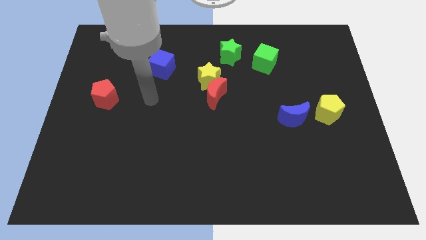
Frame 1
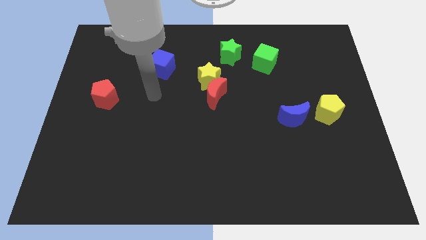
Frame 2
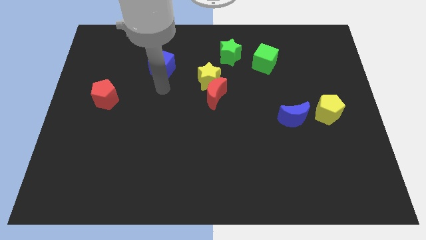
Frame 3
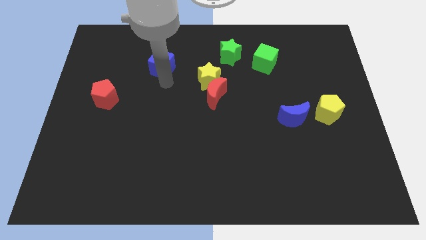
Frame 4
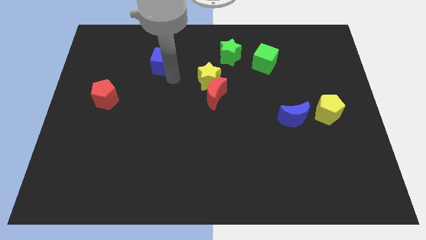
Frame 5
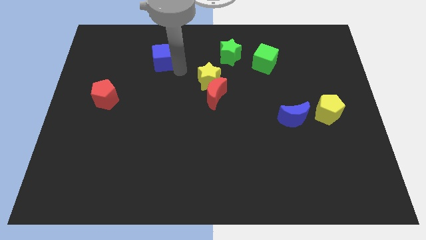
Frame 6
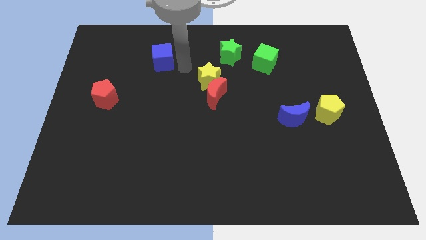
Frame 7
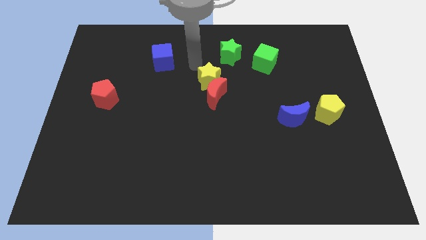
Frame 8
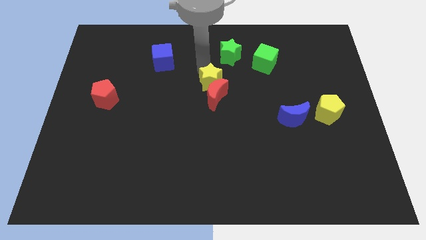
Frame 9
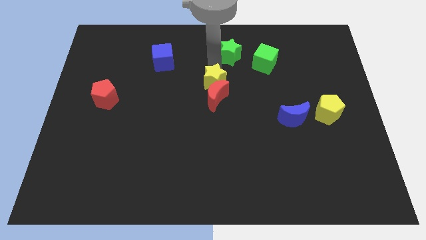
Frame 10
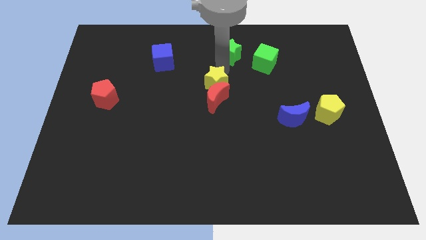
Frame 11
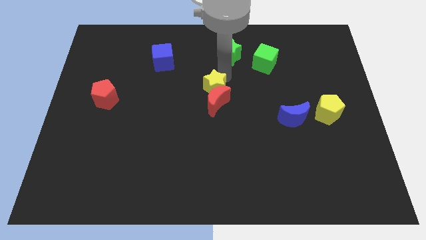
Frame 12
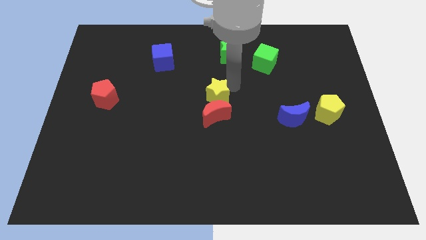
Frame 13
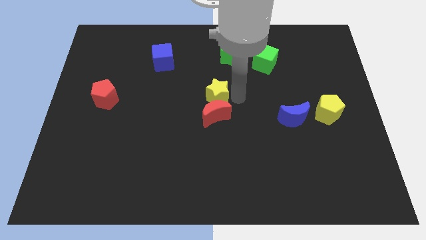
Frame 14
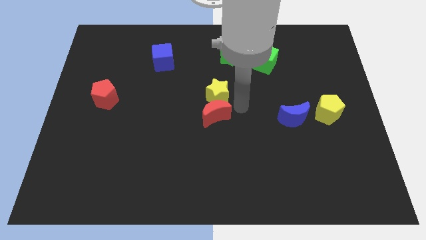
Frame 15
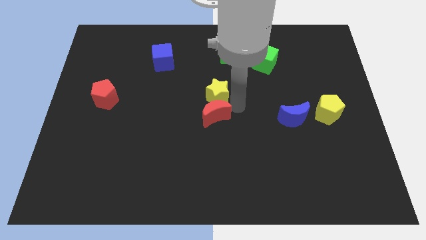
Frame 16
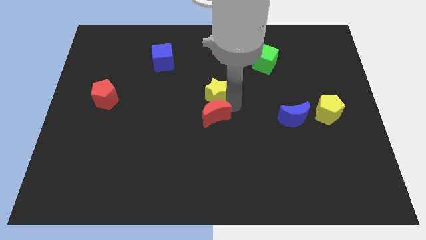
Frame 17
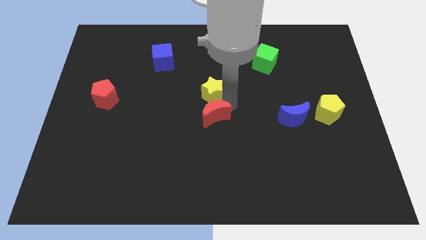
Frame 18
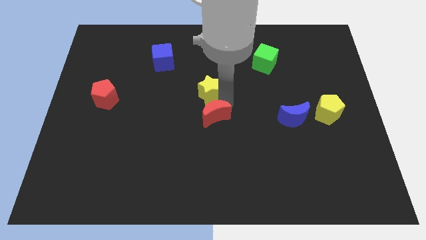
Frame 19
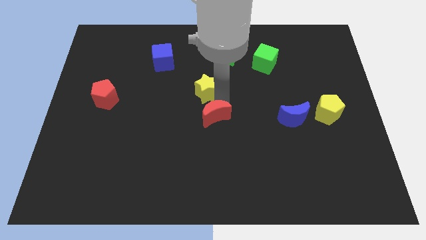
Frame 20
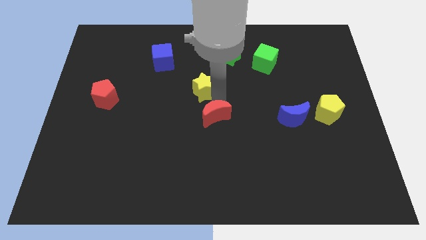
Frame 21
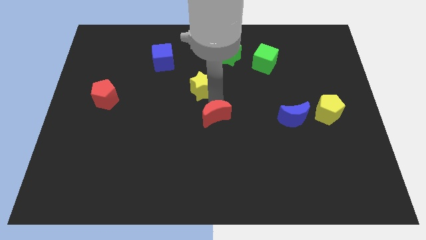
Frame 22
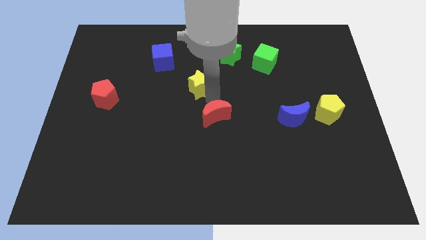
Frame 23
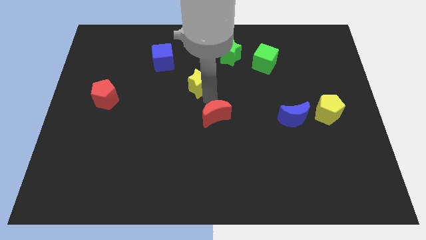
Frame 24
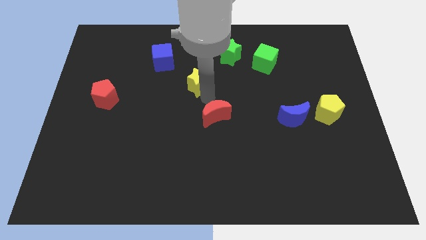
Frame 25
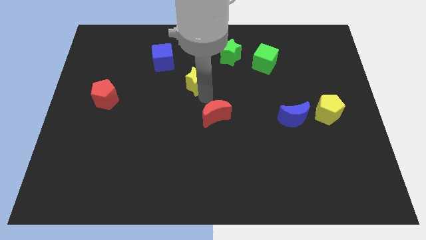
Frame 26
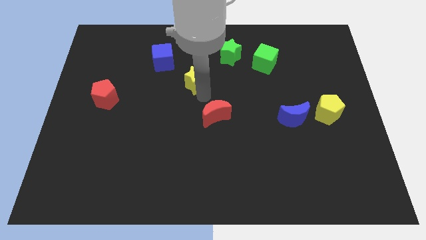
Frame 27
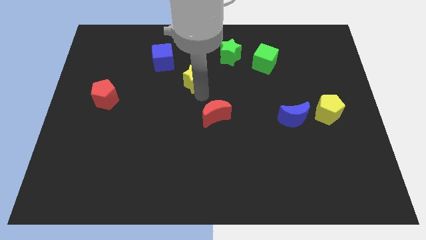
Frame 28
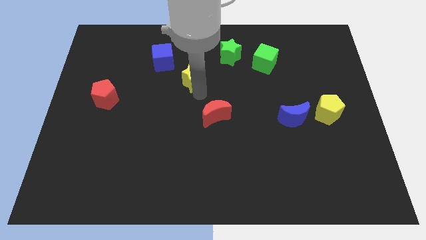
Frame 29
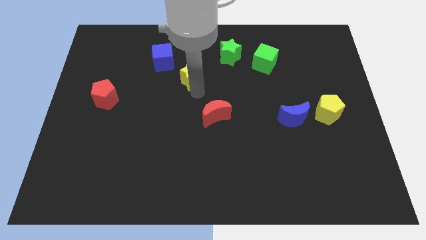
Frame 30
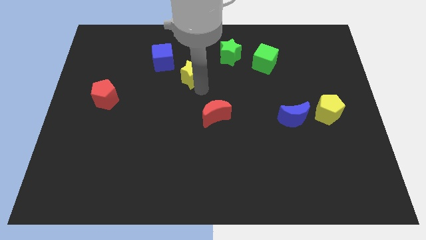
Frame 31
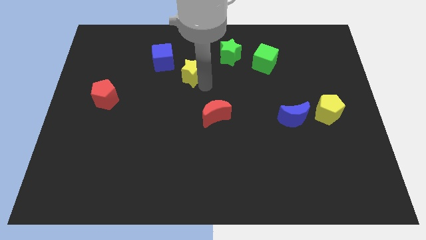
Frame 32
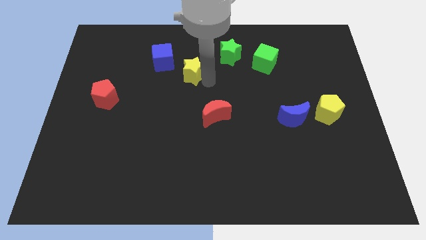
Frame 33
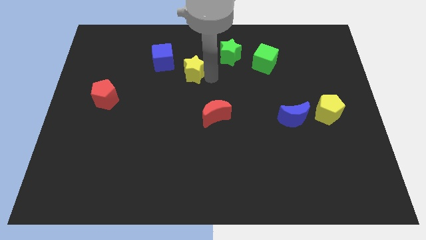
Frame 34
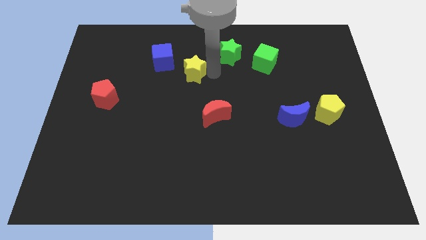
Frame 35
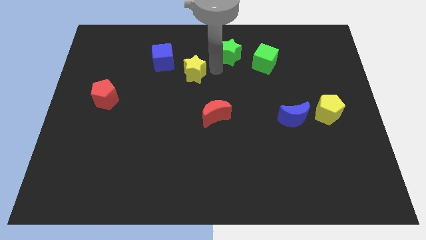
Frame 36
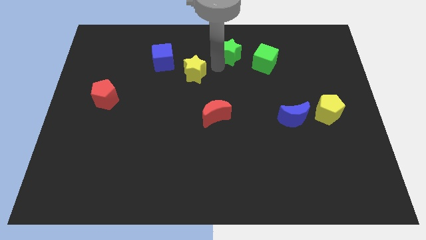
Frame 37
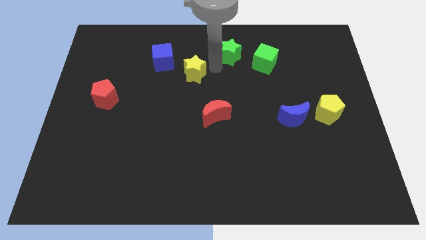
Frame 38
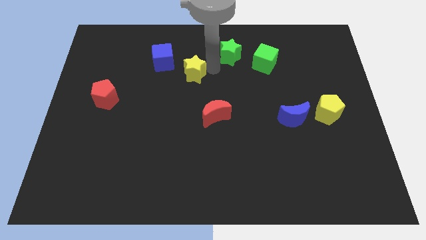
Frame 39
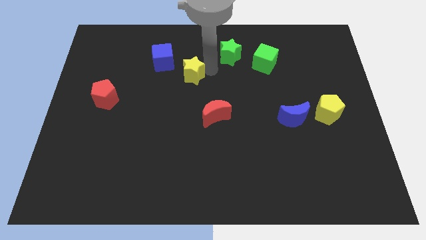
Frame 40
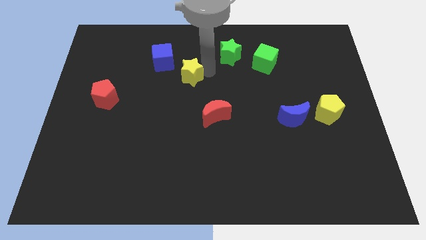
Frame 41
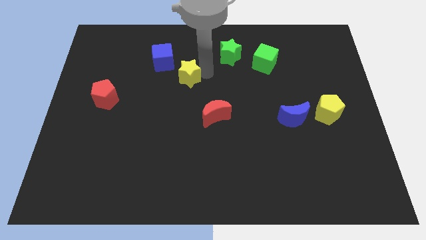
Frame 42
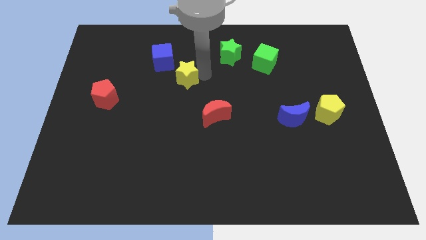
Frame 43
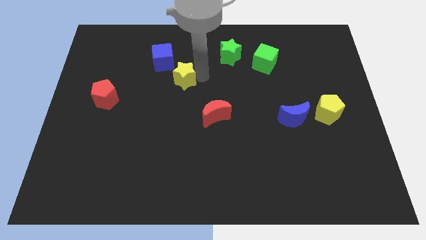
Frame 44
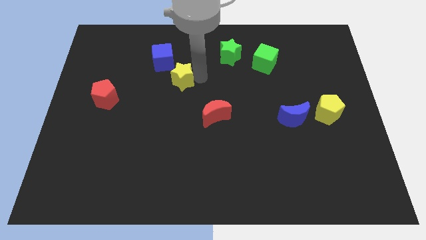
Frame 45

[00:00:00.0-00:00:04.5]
push the yellow star a little bit left

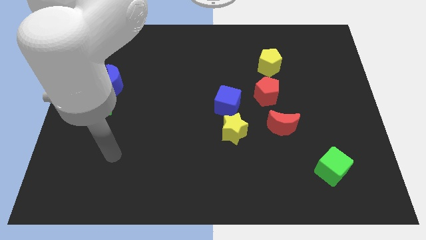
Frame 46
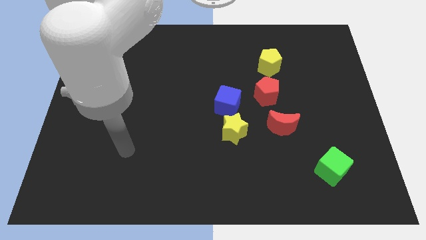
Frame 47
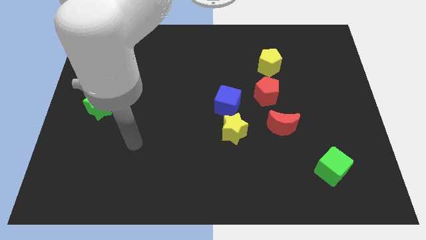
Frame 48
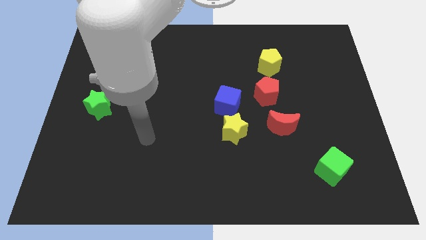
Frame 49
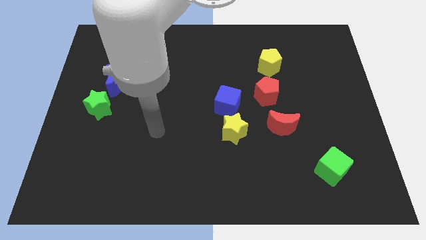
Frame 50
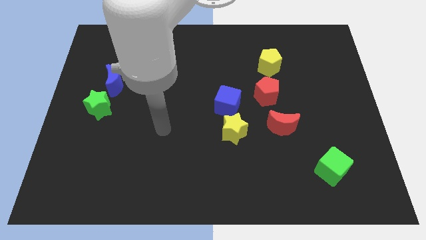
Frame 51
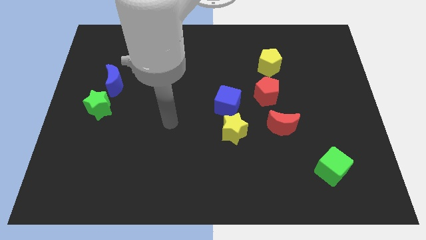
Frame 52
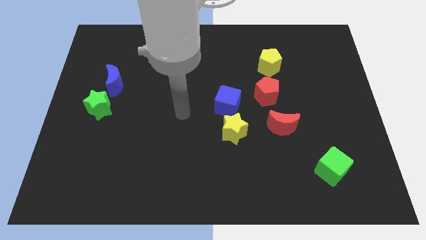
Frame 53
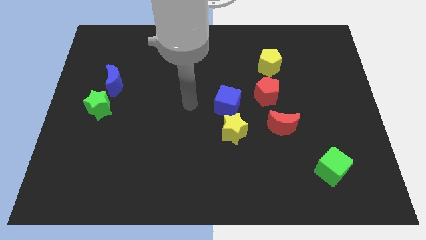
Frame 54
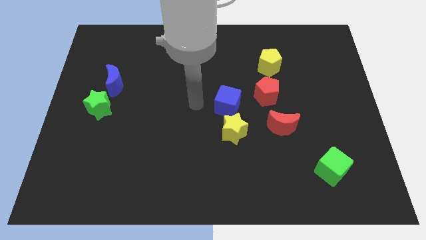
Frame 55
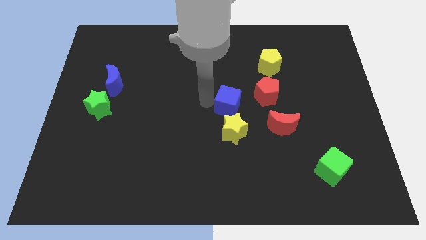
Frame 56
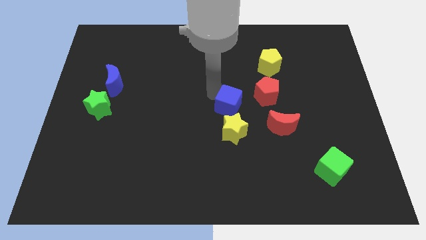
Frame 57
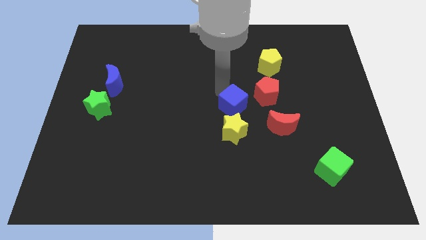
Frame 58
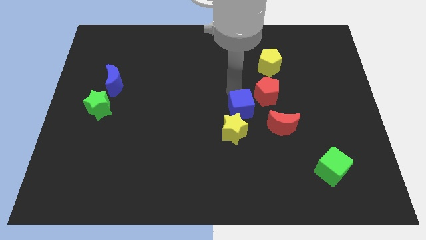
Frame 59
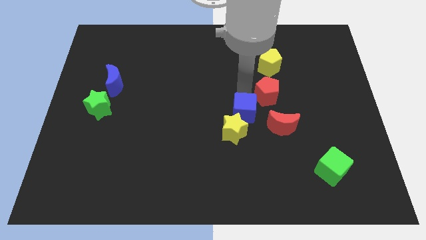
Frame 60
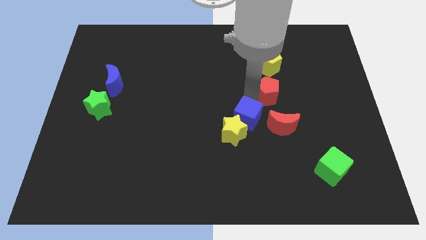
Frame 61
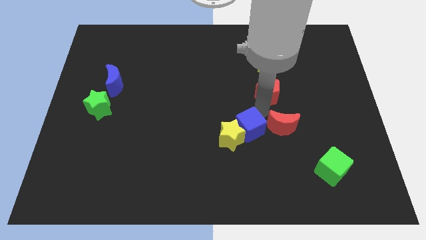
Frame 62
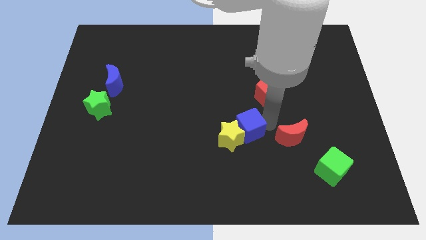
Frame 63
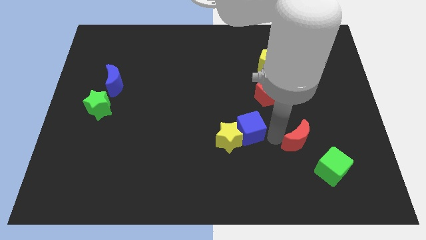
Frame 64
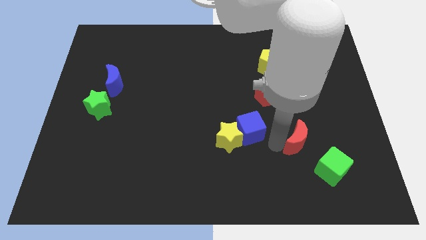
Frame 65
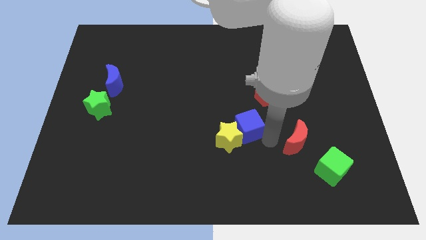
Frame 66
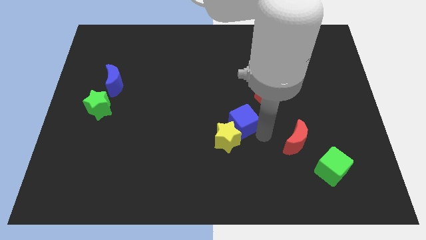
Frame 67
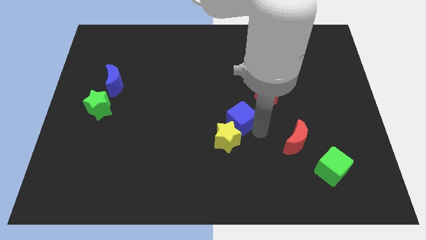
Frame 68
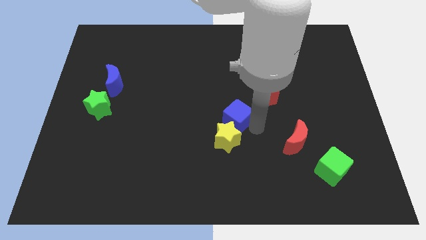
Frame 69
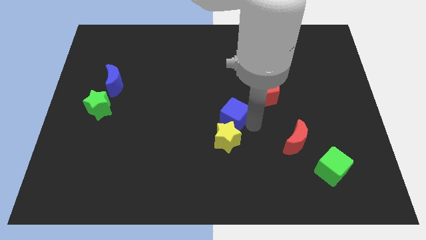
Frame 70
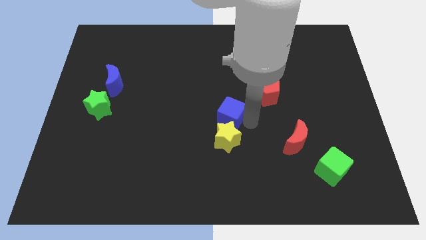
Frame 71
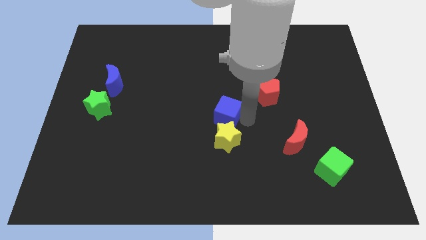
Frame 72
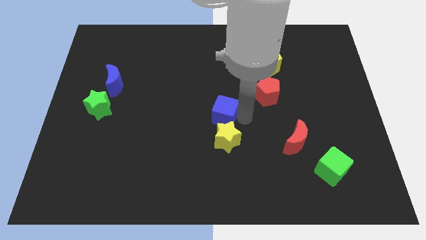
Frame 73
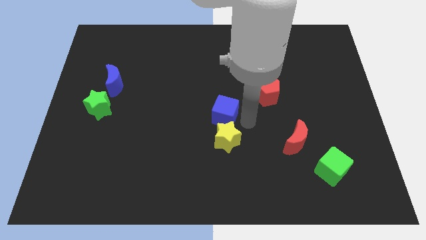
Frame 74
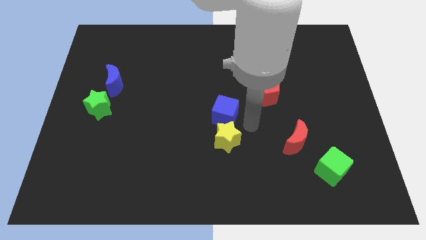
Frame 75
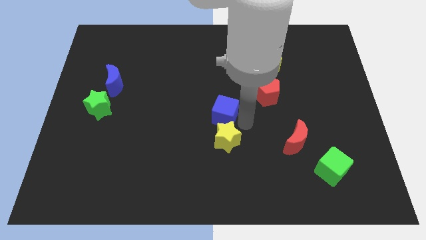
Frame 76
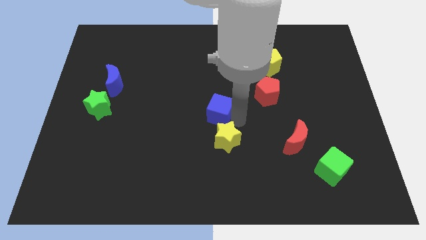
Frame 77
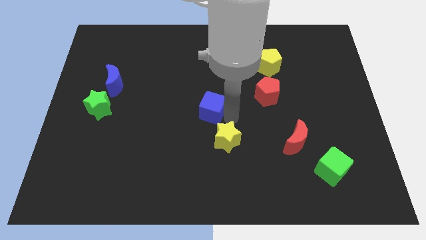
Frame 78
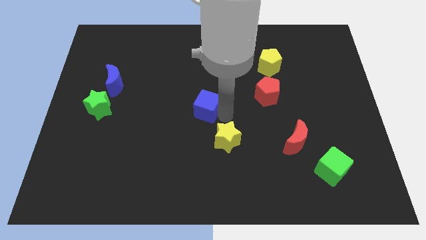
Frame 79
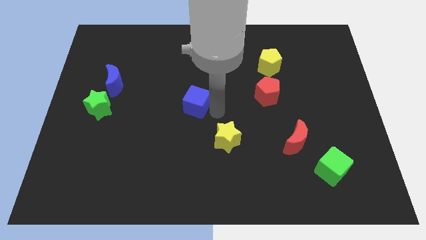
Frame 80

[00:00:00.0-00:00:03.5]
slightly move the blue cube left

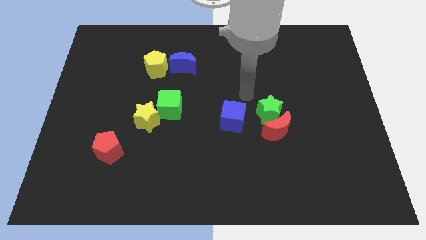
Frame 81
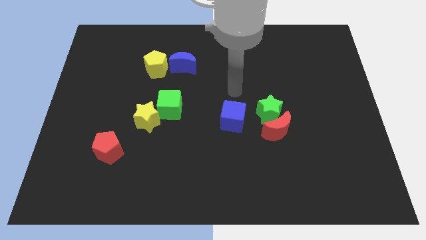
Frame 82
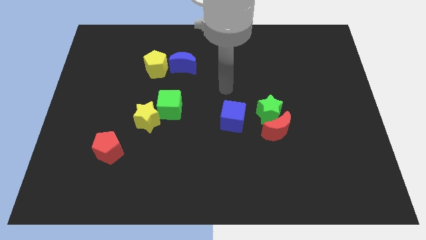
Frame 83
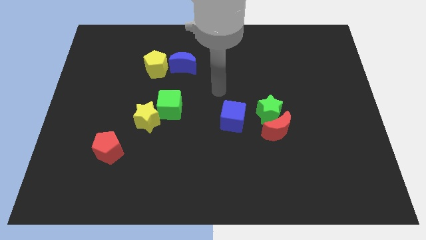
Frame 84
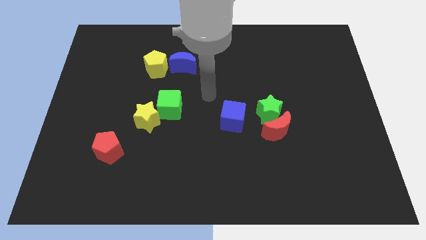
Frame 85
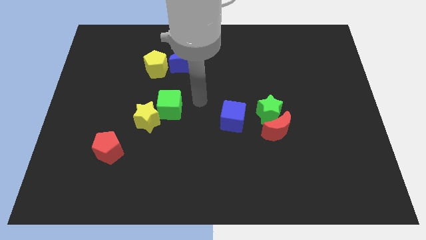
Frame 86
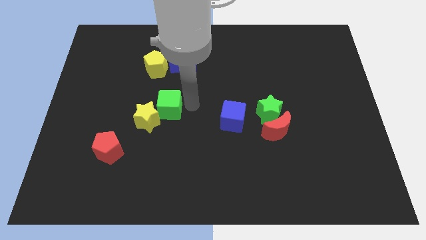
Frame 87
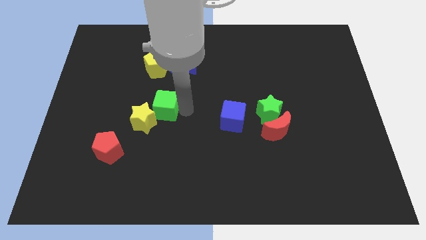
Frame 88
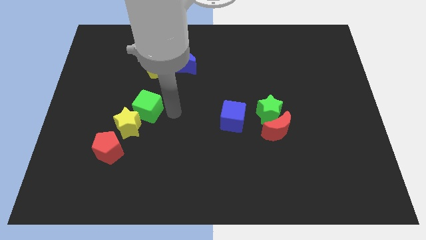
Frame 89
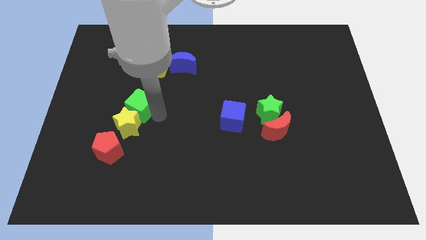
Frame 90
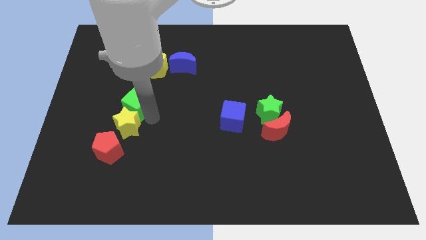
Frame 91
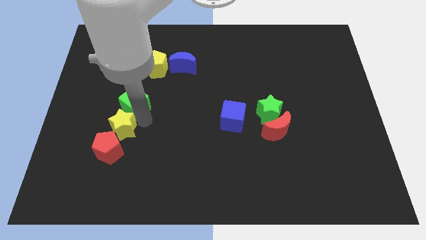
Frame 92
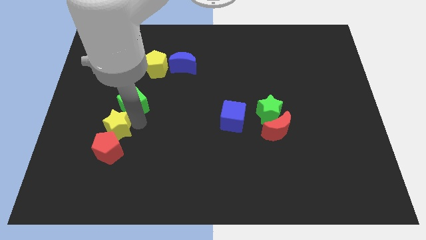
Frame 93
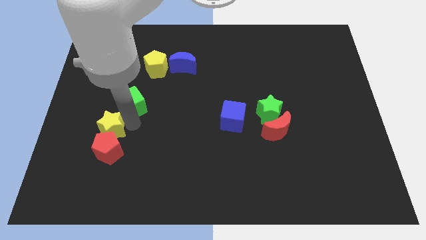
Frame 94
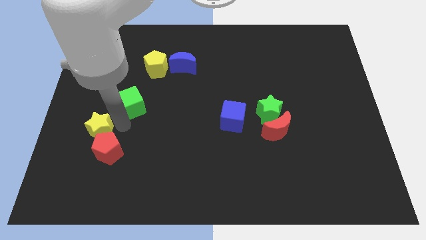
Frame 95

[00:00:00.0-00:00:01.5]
slide the yellow star downwards and left diagonally a bit
